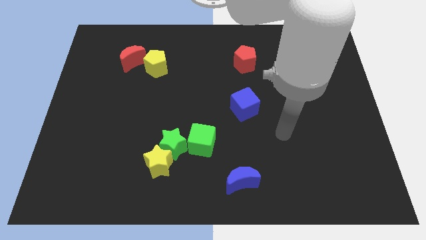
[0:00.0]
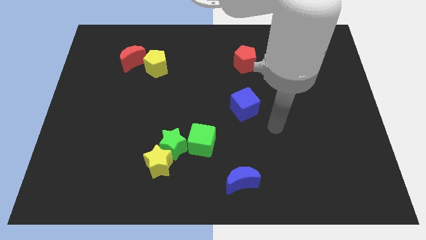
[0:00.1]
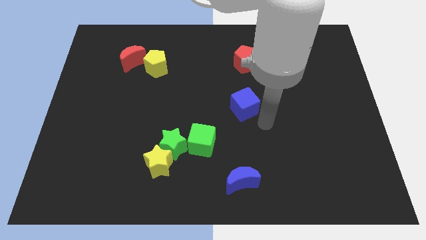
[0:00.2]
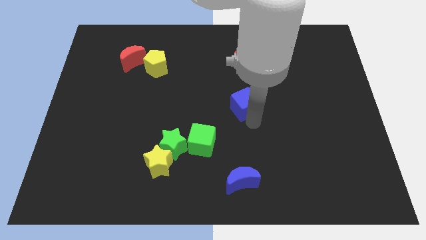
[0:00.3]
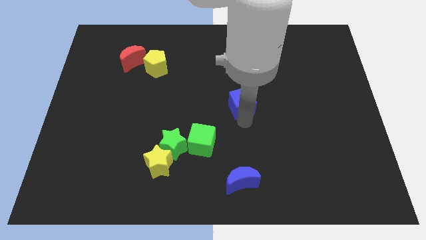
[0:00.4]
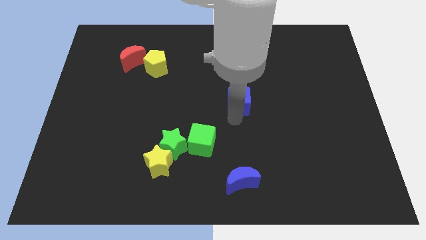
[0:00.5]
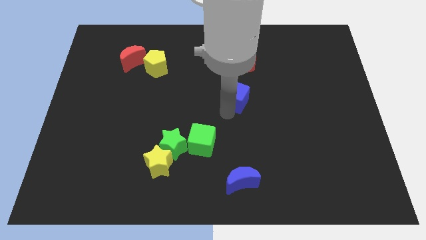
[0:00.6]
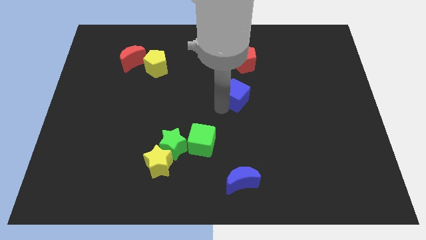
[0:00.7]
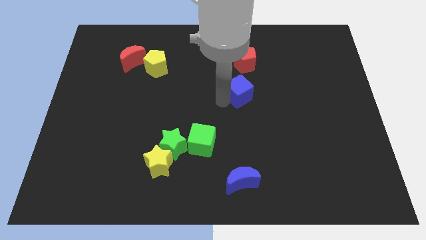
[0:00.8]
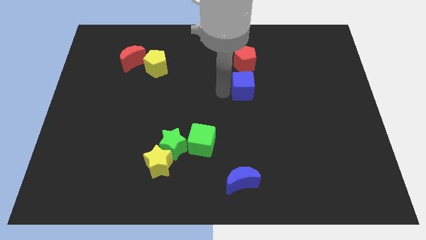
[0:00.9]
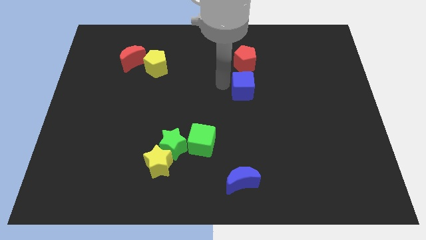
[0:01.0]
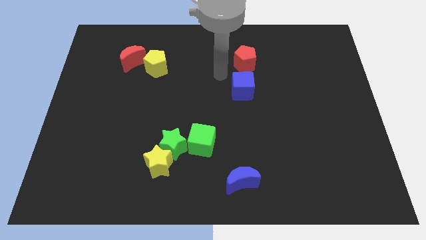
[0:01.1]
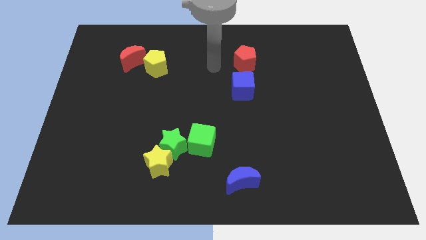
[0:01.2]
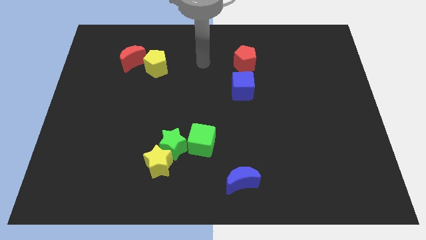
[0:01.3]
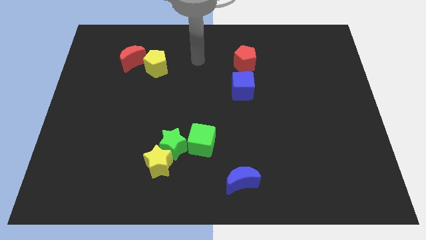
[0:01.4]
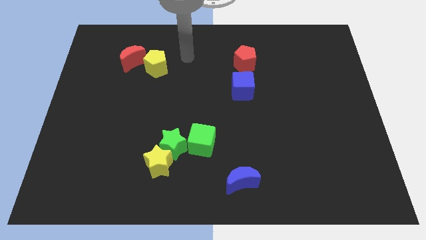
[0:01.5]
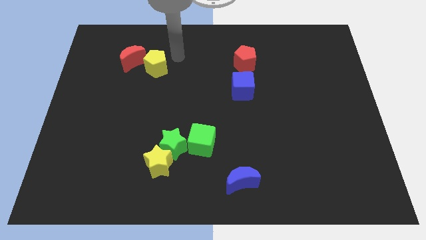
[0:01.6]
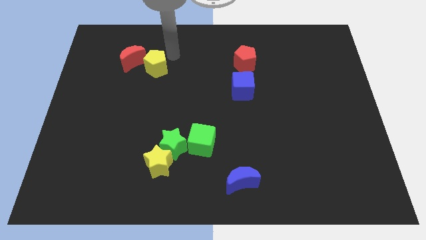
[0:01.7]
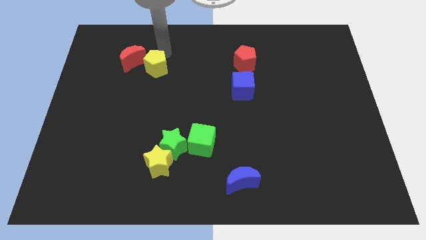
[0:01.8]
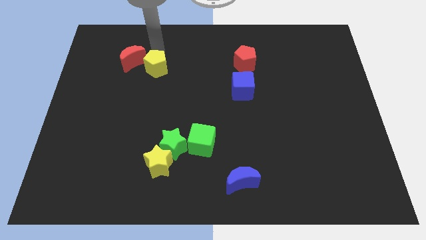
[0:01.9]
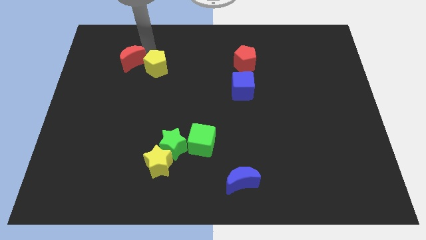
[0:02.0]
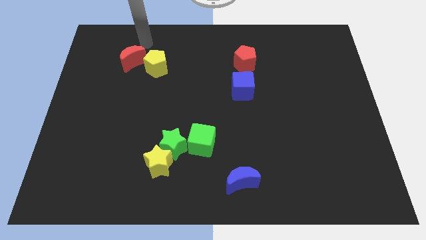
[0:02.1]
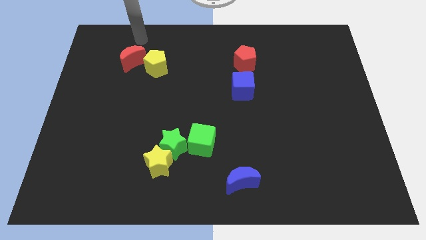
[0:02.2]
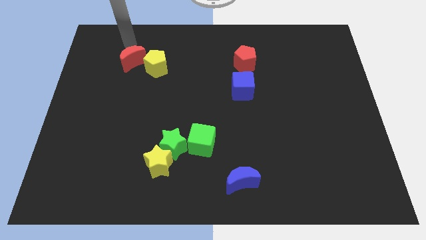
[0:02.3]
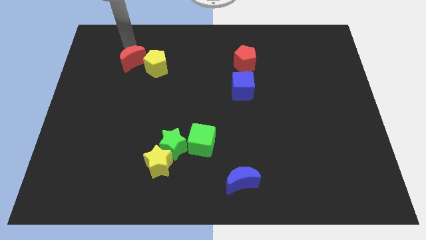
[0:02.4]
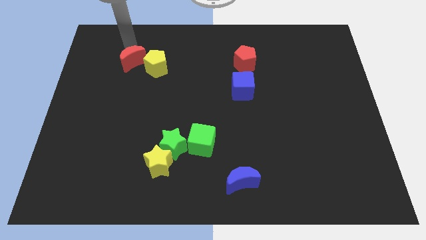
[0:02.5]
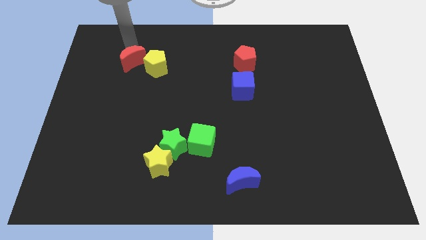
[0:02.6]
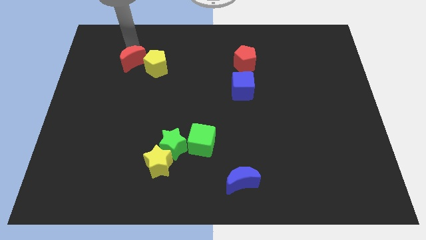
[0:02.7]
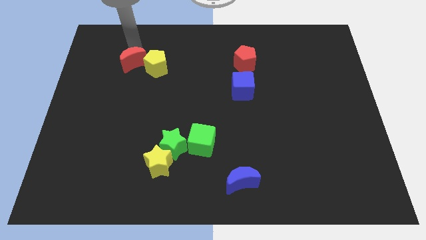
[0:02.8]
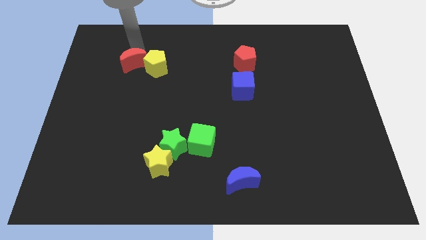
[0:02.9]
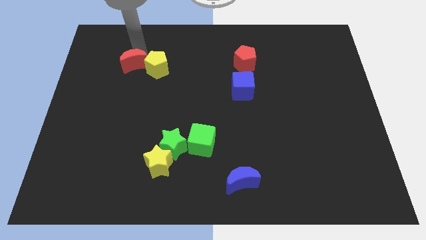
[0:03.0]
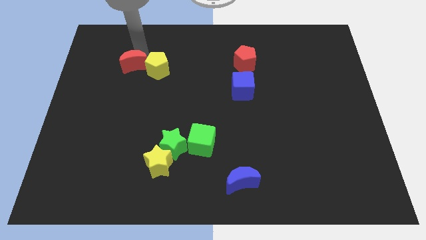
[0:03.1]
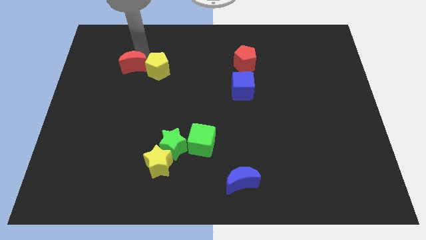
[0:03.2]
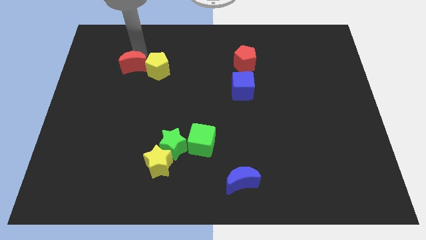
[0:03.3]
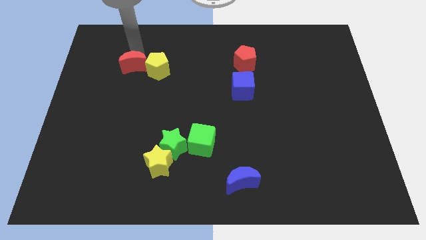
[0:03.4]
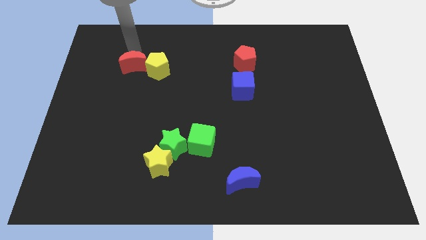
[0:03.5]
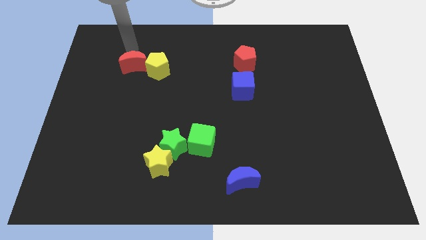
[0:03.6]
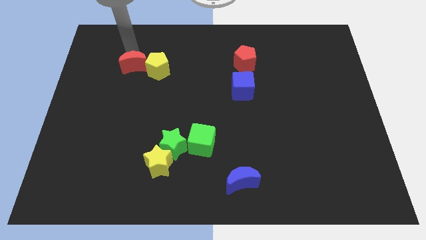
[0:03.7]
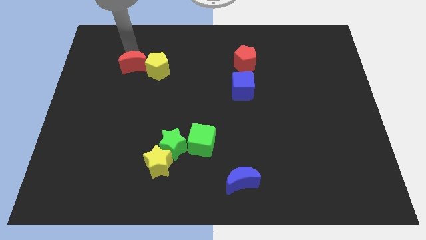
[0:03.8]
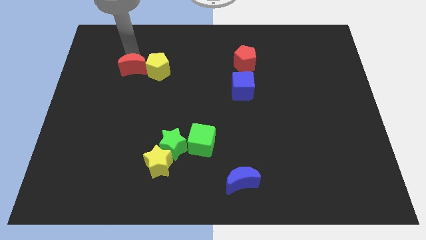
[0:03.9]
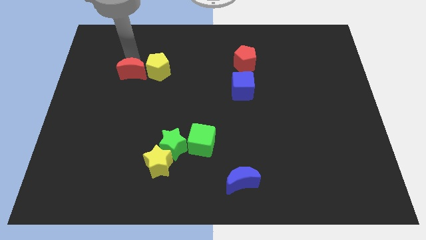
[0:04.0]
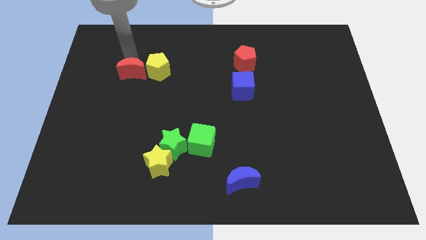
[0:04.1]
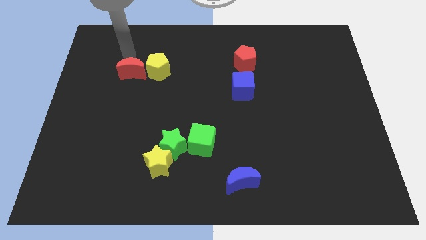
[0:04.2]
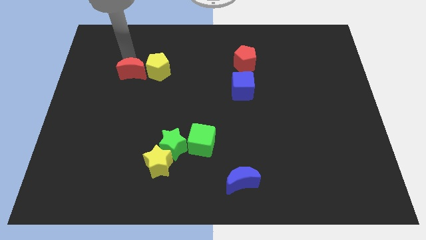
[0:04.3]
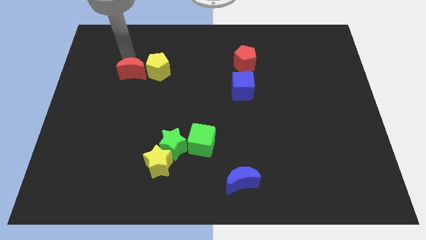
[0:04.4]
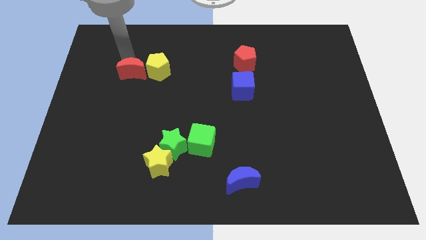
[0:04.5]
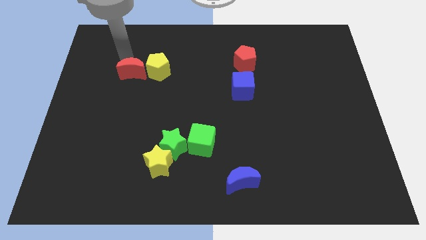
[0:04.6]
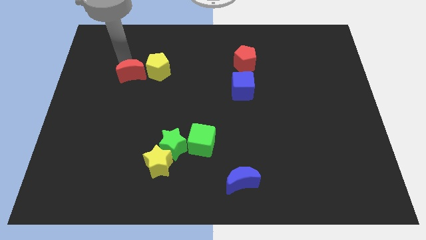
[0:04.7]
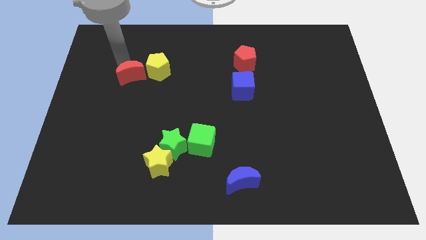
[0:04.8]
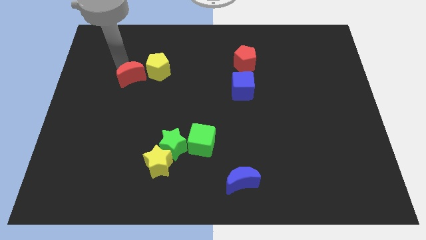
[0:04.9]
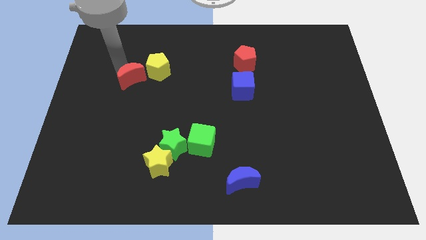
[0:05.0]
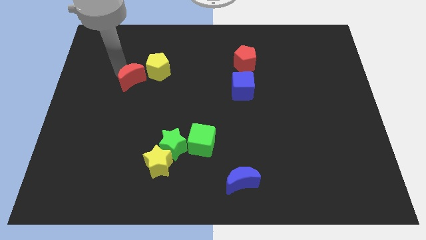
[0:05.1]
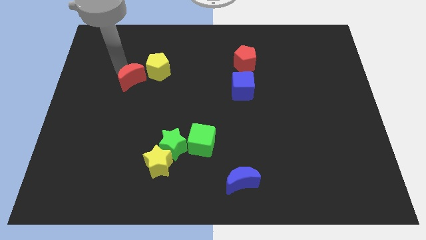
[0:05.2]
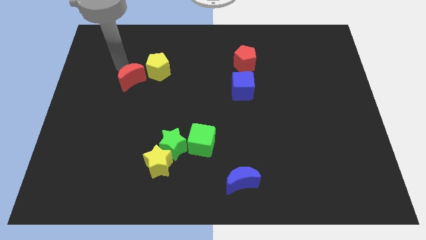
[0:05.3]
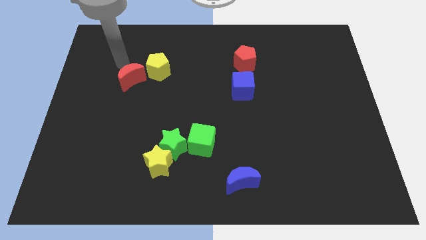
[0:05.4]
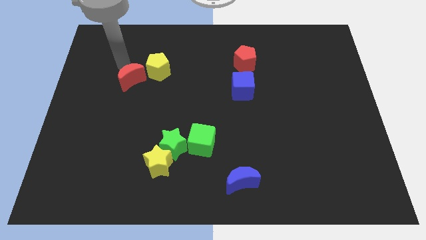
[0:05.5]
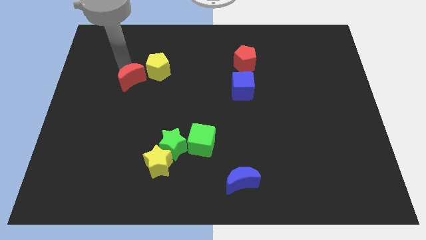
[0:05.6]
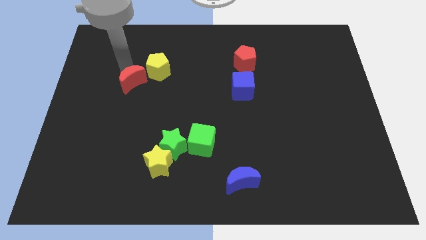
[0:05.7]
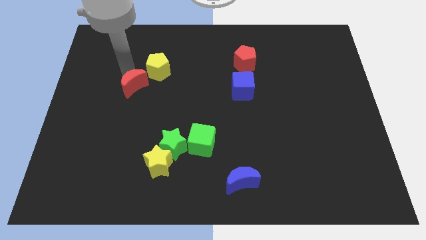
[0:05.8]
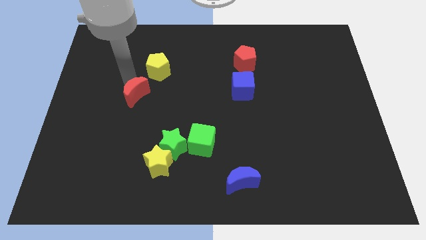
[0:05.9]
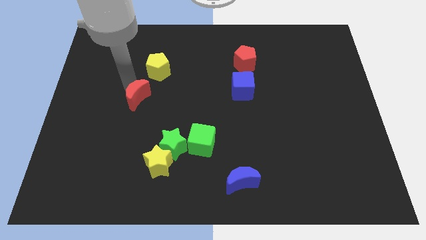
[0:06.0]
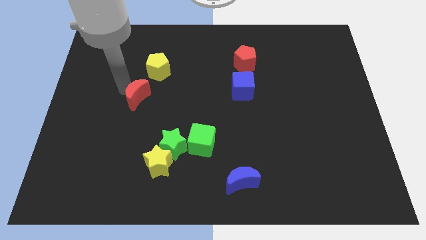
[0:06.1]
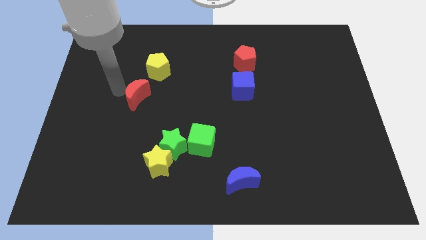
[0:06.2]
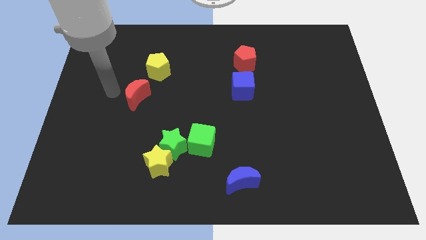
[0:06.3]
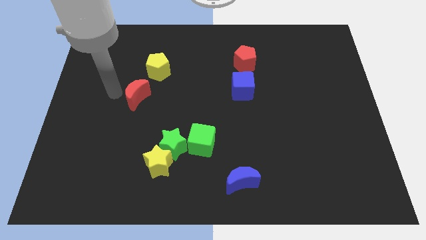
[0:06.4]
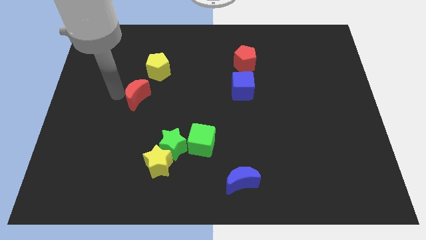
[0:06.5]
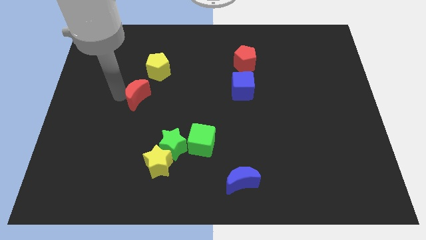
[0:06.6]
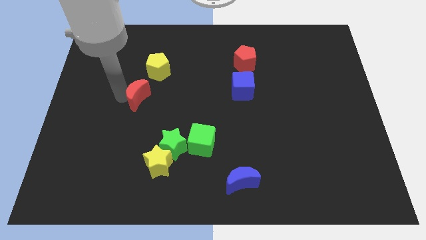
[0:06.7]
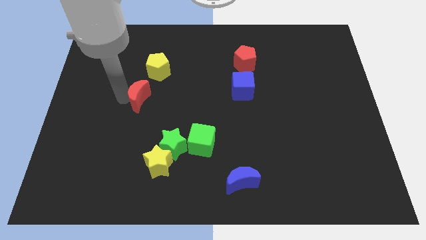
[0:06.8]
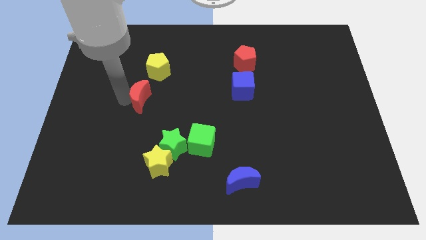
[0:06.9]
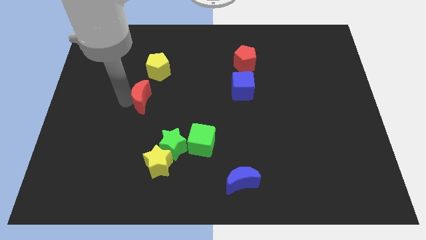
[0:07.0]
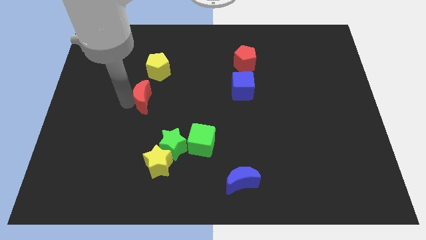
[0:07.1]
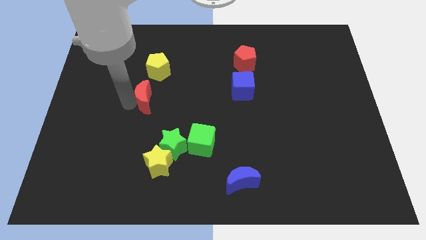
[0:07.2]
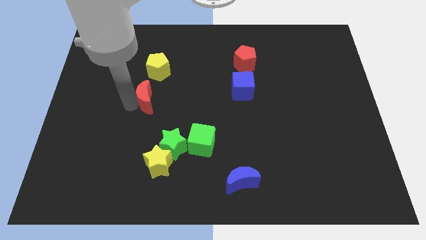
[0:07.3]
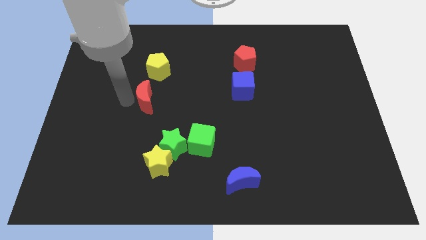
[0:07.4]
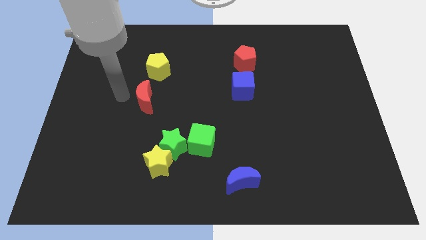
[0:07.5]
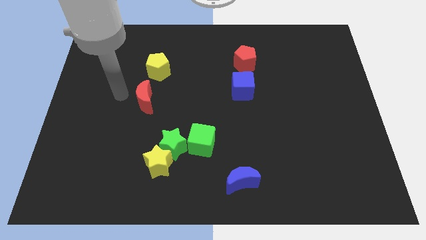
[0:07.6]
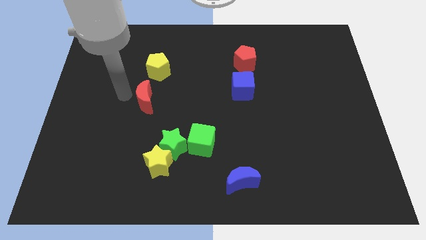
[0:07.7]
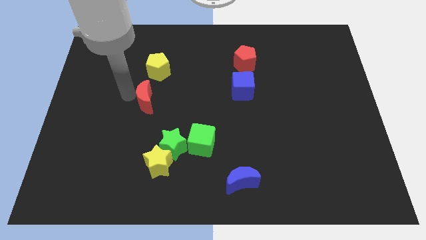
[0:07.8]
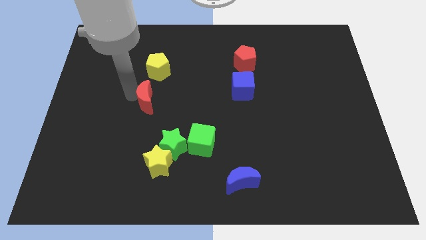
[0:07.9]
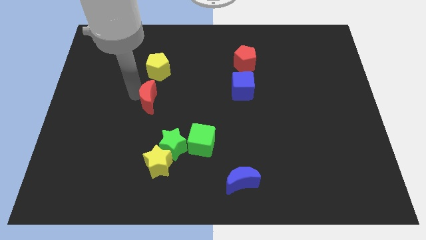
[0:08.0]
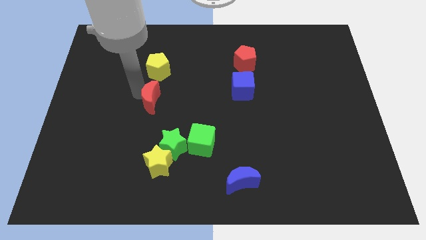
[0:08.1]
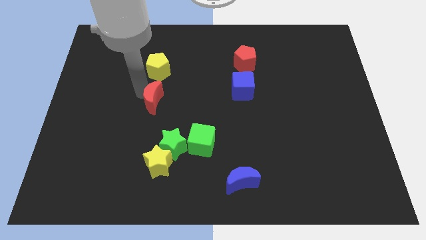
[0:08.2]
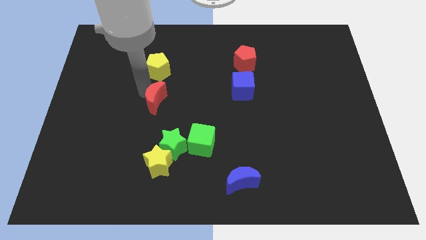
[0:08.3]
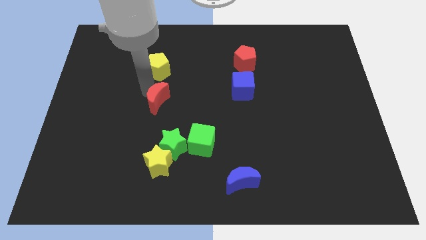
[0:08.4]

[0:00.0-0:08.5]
put the red moon to the top of the green star
